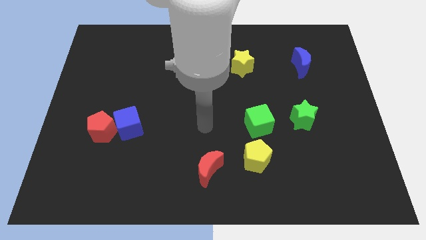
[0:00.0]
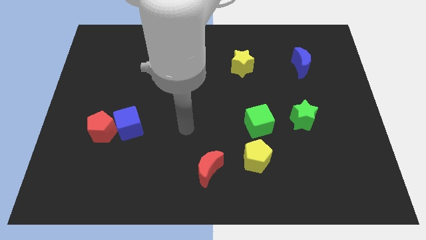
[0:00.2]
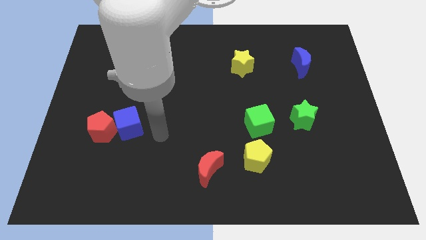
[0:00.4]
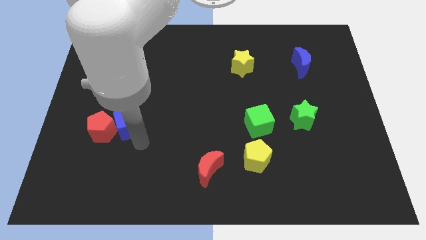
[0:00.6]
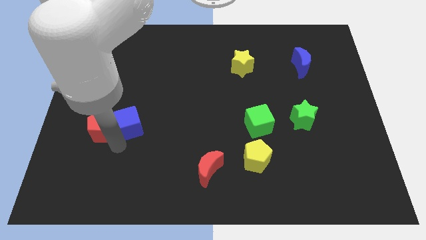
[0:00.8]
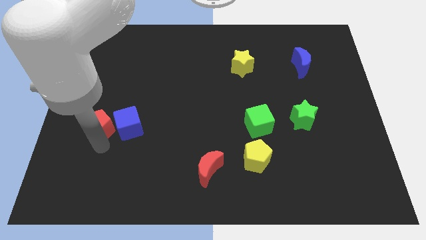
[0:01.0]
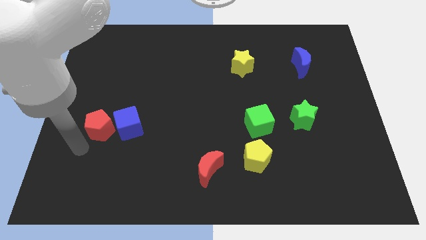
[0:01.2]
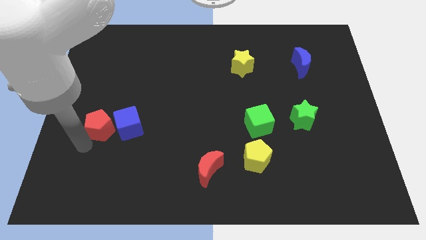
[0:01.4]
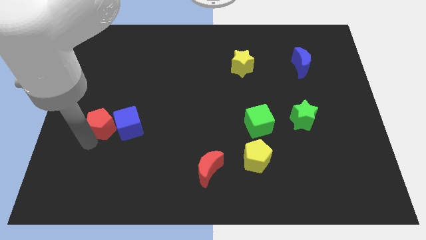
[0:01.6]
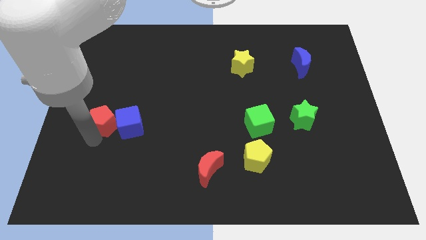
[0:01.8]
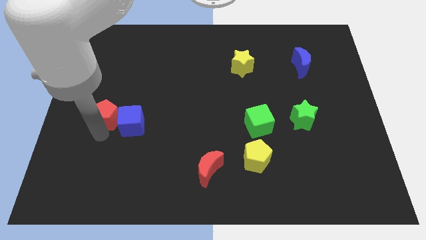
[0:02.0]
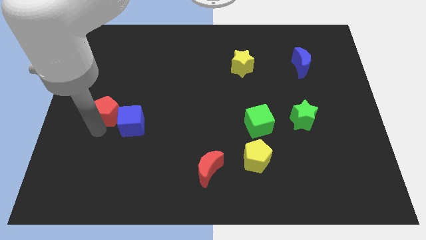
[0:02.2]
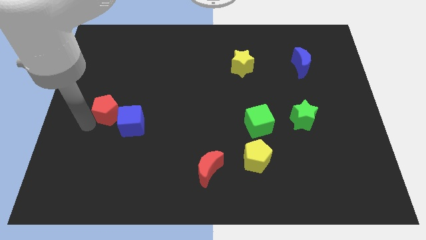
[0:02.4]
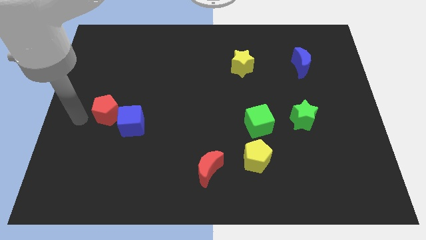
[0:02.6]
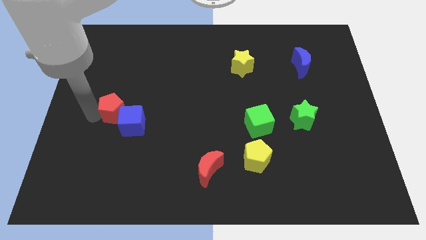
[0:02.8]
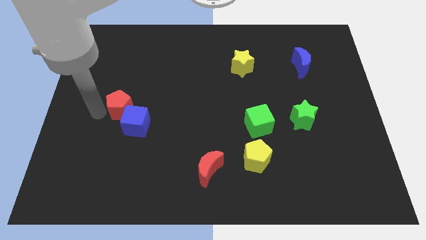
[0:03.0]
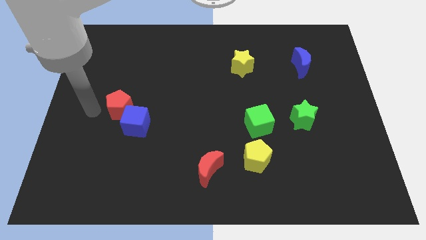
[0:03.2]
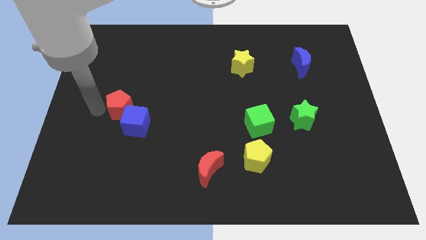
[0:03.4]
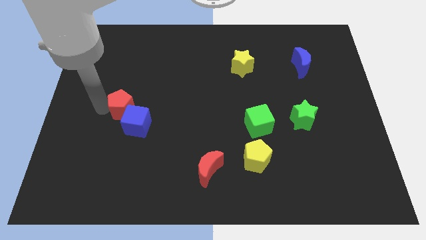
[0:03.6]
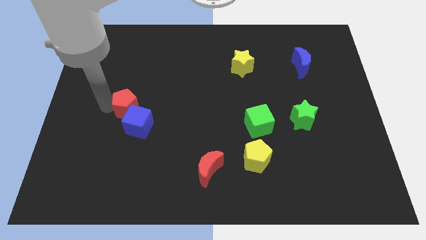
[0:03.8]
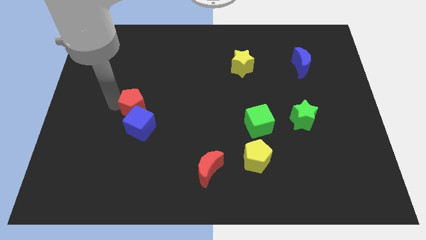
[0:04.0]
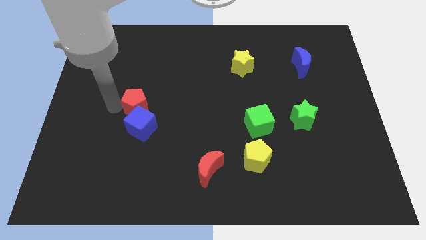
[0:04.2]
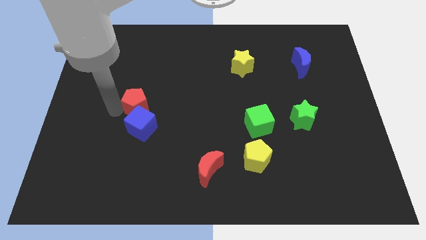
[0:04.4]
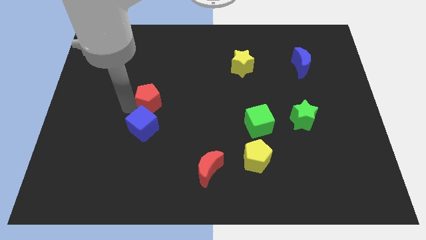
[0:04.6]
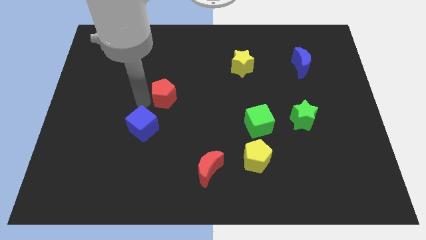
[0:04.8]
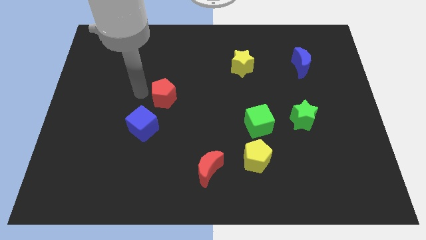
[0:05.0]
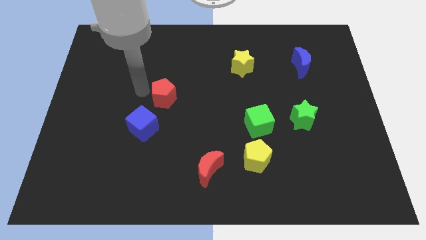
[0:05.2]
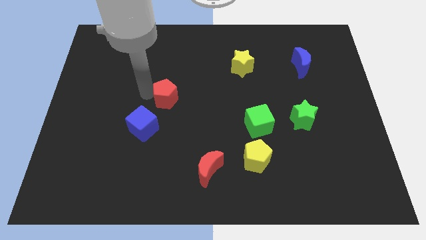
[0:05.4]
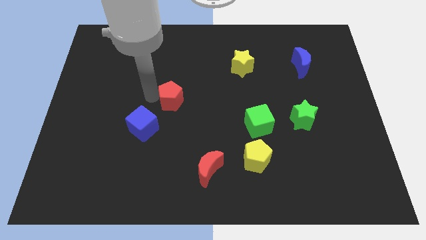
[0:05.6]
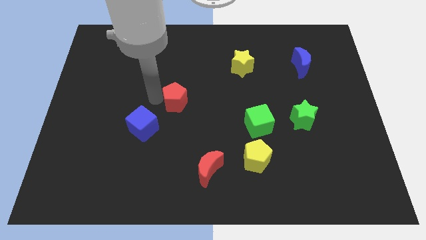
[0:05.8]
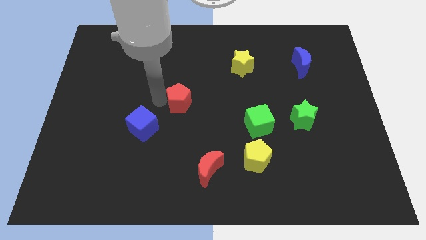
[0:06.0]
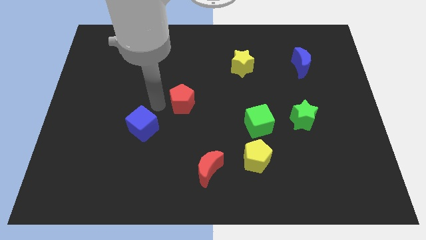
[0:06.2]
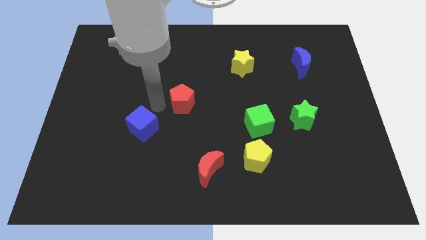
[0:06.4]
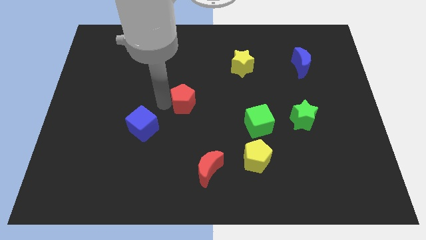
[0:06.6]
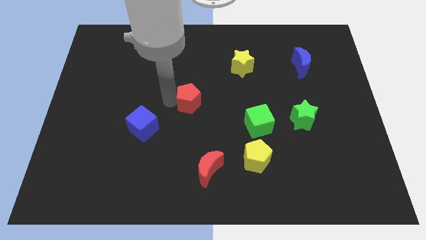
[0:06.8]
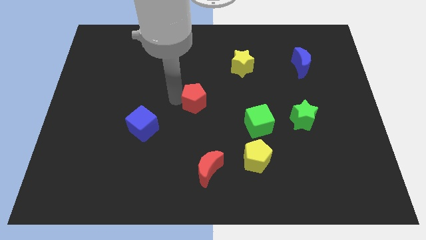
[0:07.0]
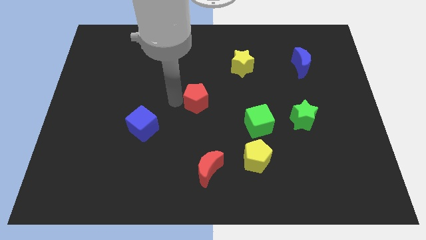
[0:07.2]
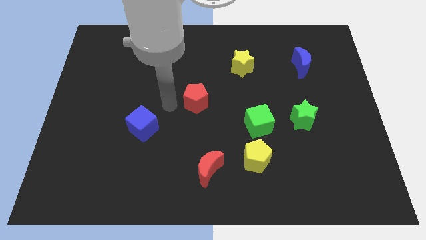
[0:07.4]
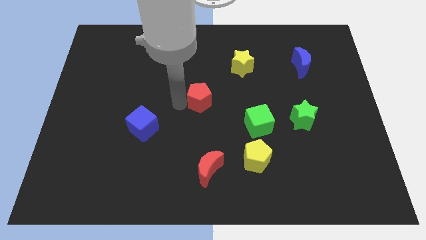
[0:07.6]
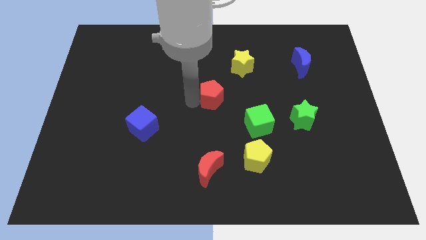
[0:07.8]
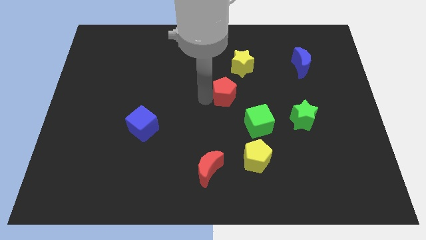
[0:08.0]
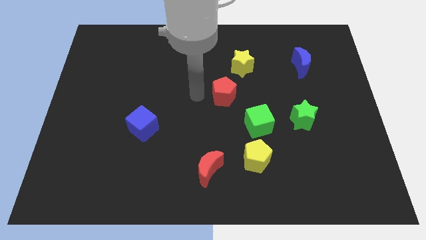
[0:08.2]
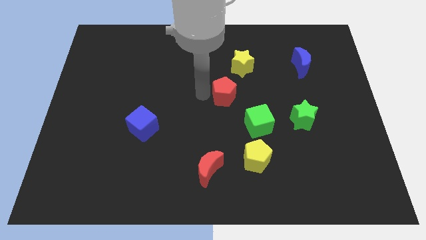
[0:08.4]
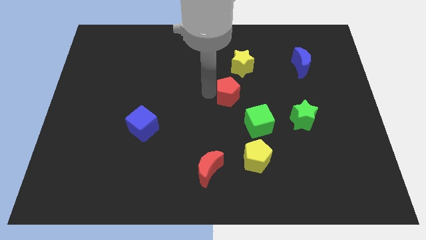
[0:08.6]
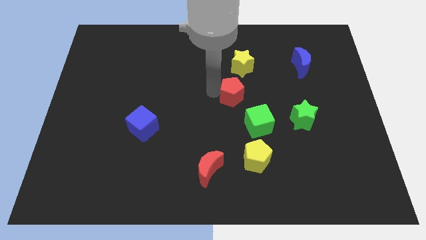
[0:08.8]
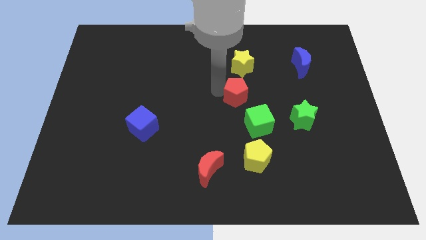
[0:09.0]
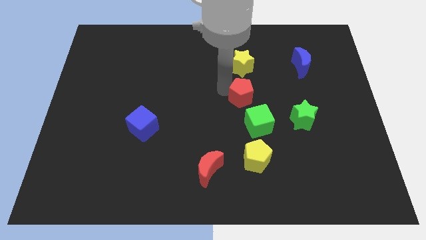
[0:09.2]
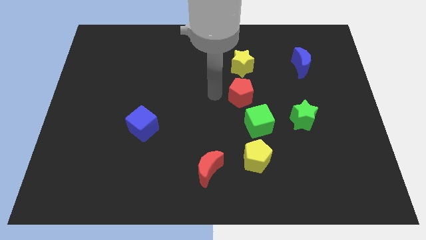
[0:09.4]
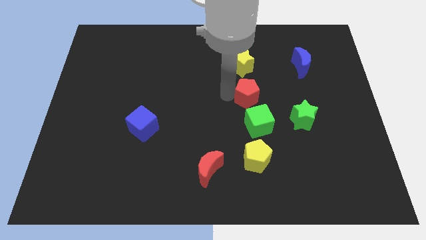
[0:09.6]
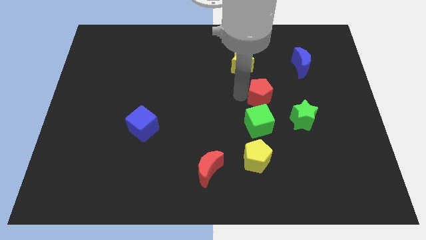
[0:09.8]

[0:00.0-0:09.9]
push the red pentagon diagonally up and to the left of the green star

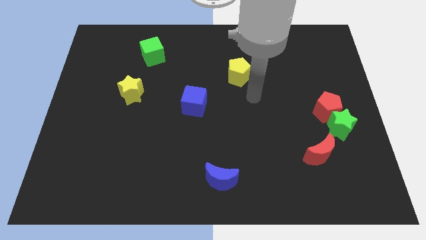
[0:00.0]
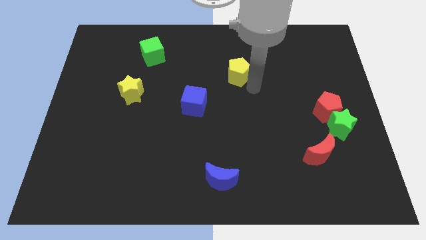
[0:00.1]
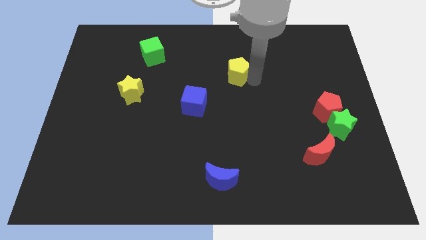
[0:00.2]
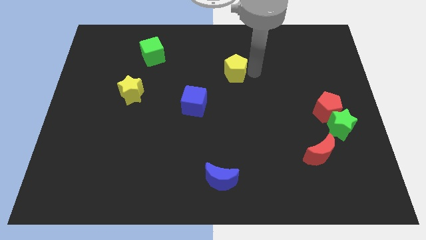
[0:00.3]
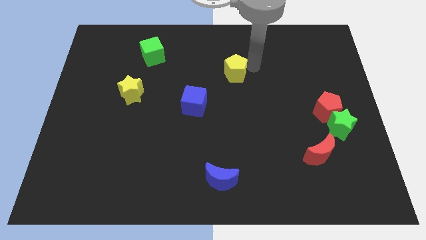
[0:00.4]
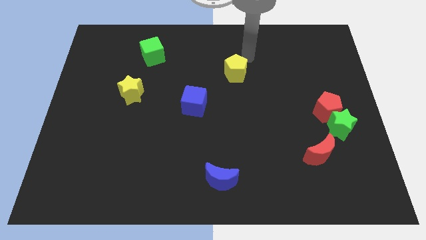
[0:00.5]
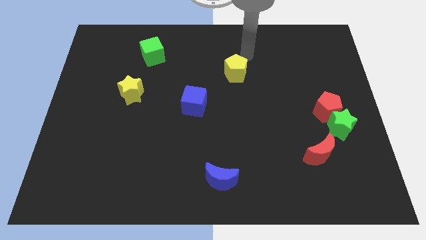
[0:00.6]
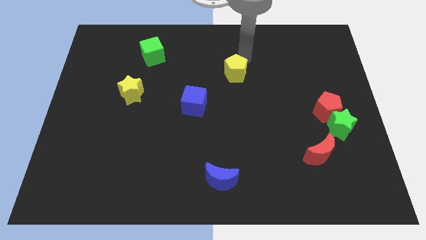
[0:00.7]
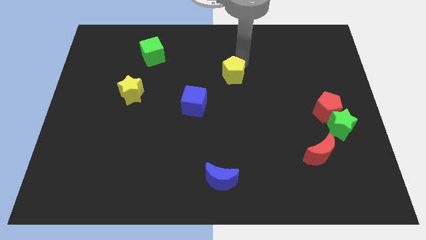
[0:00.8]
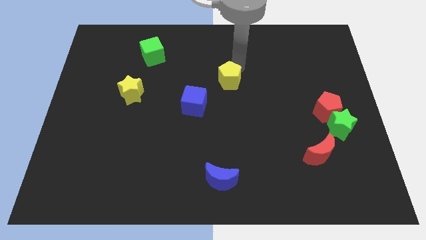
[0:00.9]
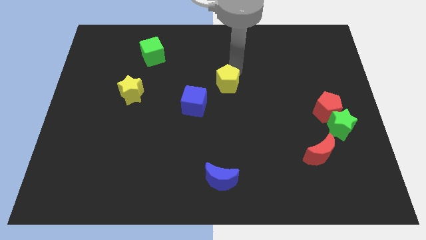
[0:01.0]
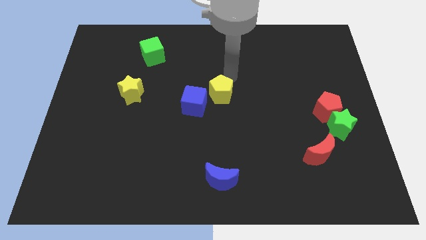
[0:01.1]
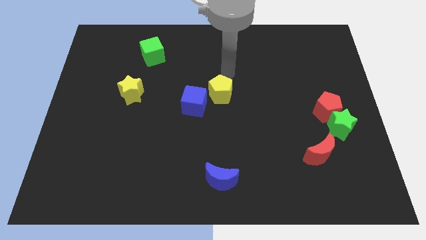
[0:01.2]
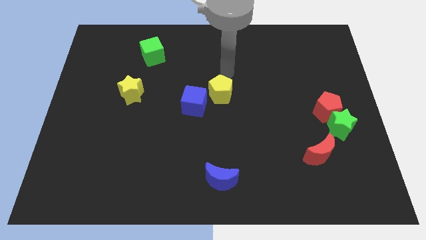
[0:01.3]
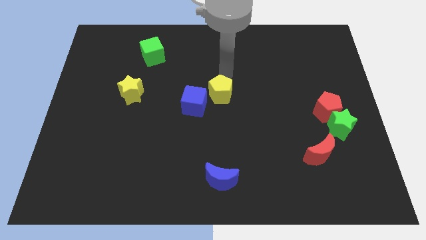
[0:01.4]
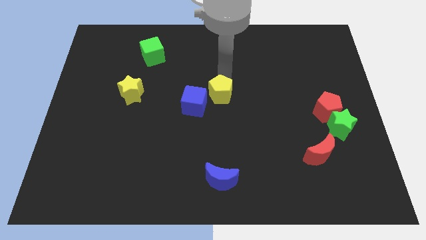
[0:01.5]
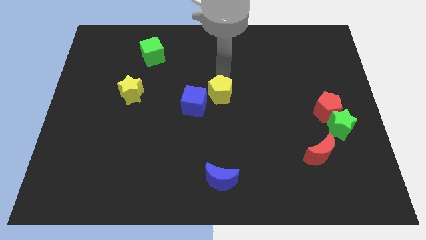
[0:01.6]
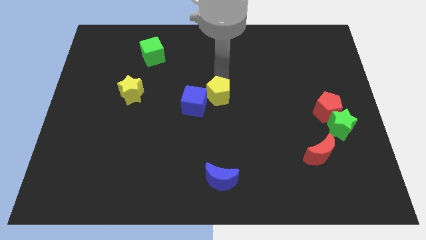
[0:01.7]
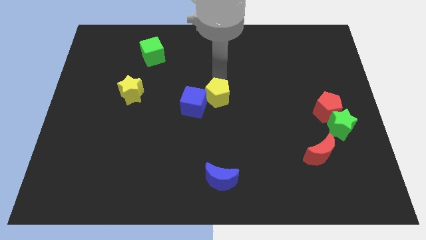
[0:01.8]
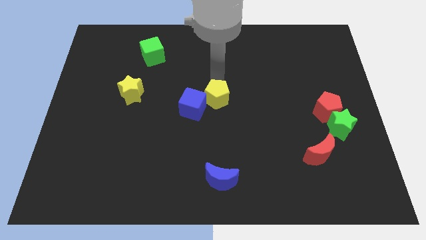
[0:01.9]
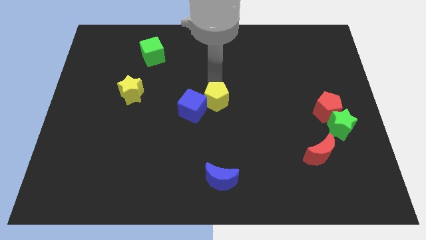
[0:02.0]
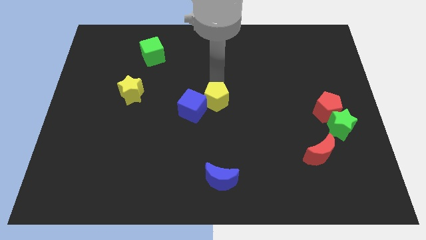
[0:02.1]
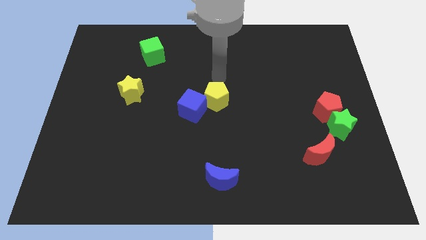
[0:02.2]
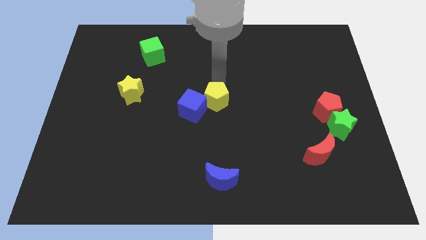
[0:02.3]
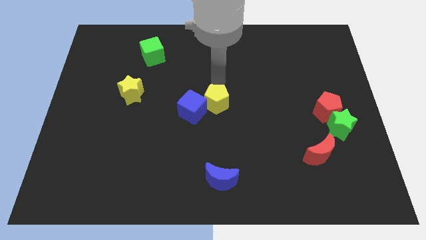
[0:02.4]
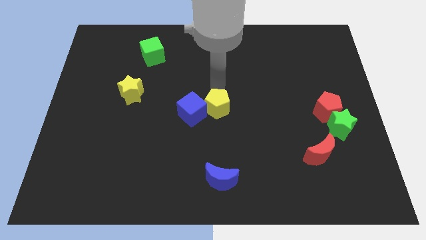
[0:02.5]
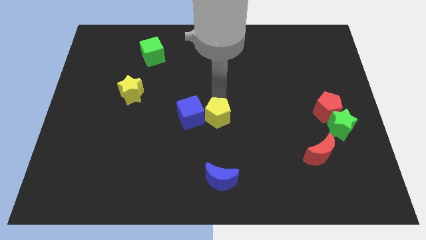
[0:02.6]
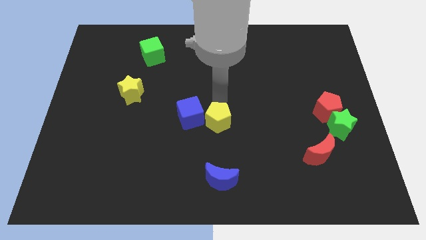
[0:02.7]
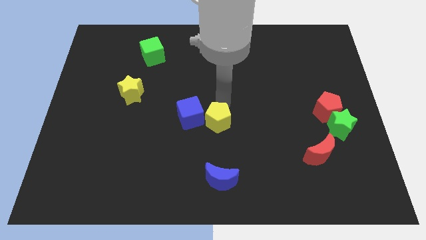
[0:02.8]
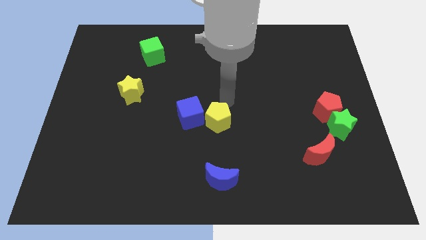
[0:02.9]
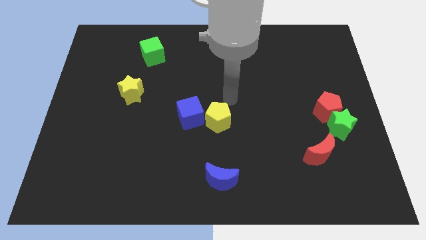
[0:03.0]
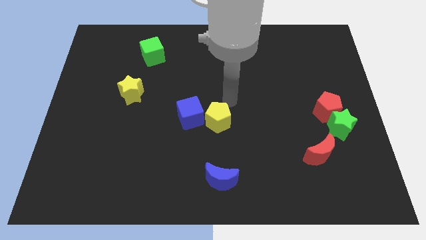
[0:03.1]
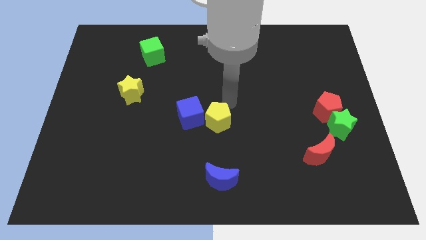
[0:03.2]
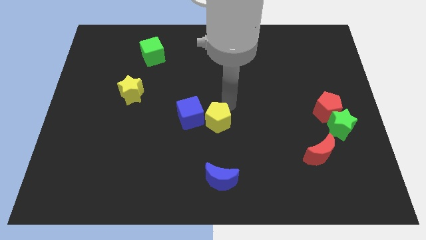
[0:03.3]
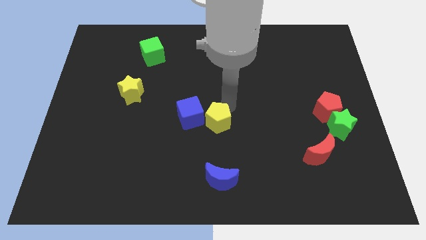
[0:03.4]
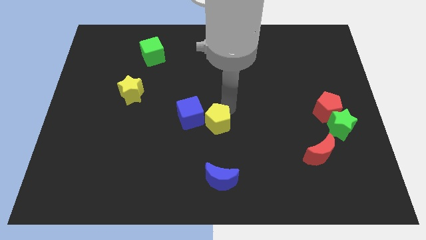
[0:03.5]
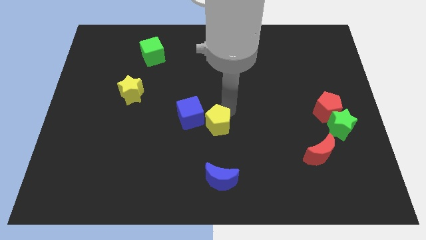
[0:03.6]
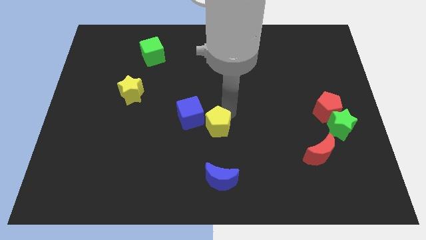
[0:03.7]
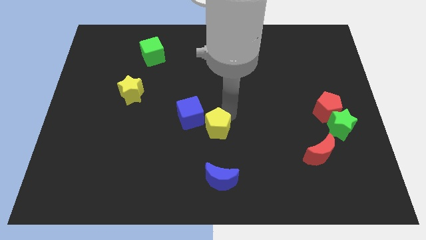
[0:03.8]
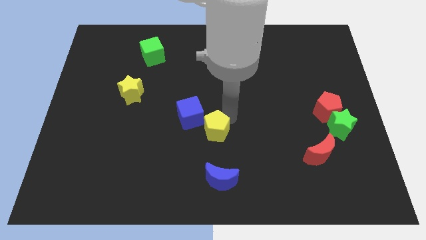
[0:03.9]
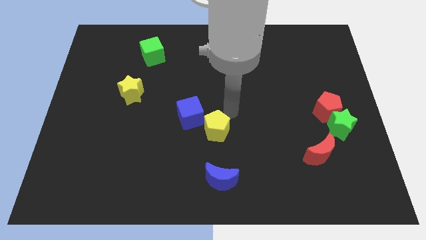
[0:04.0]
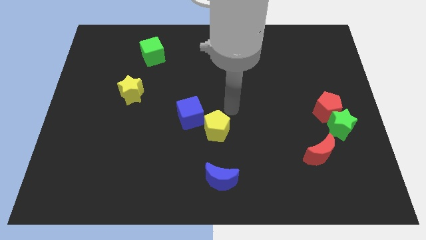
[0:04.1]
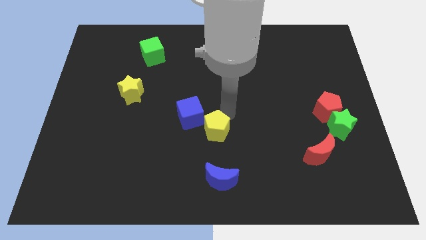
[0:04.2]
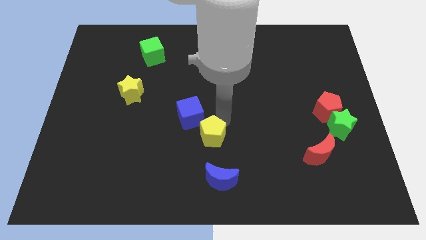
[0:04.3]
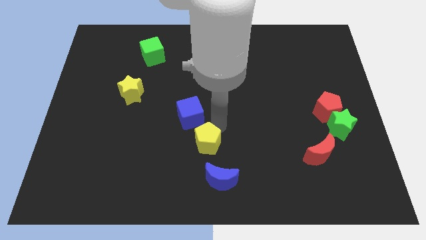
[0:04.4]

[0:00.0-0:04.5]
put the yellow pentagon to the top left of the blue moon
